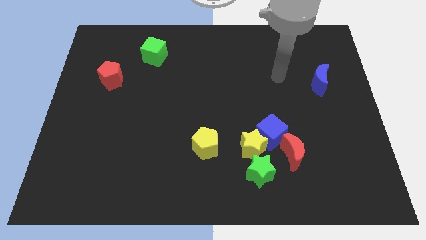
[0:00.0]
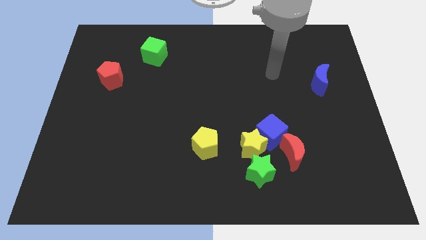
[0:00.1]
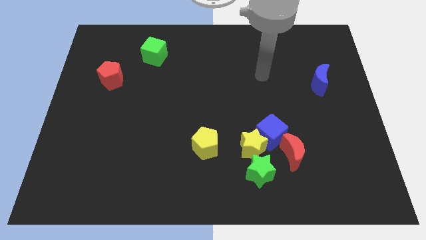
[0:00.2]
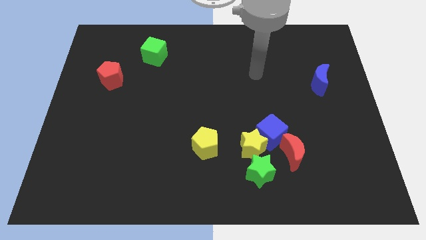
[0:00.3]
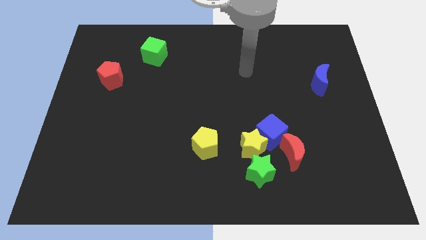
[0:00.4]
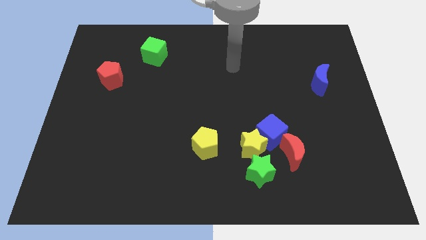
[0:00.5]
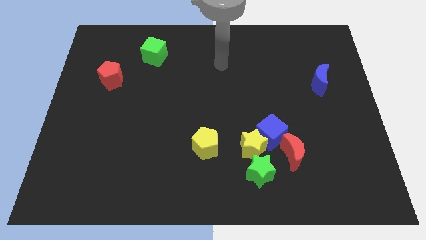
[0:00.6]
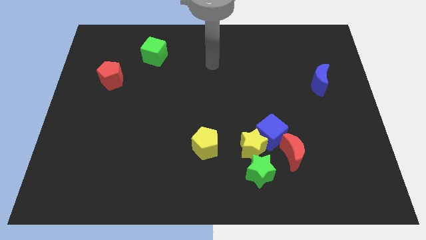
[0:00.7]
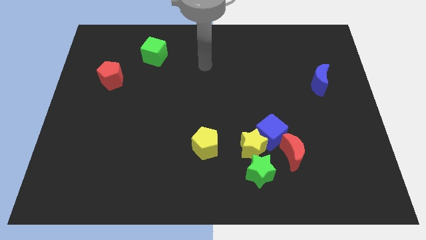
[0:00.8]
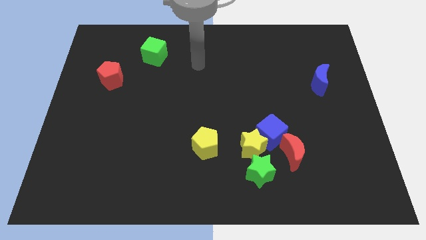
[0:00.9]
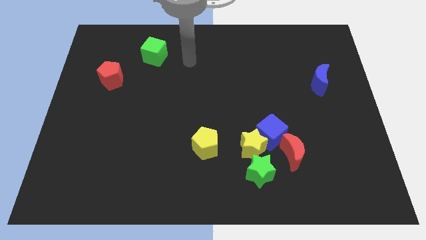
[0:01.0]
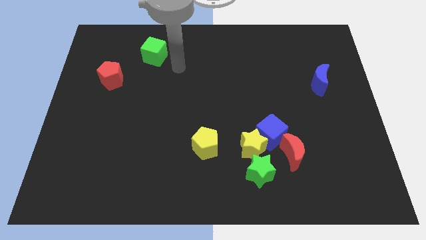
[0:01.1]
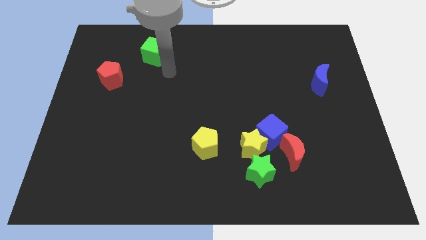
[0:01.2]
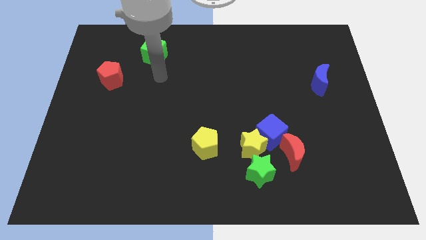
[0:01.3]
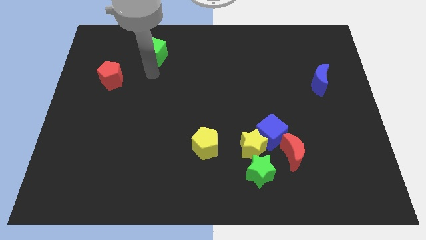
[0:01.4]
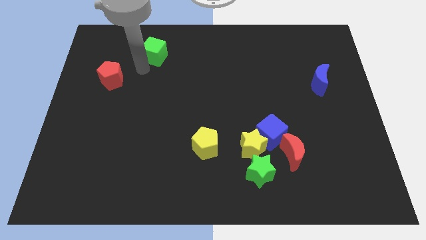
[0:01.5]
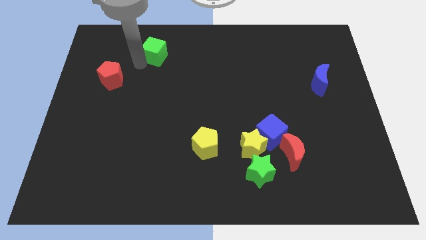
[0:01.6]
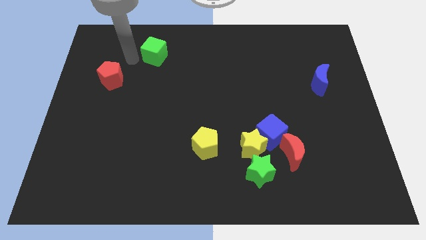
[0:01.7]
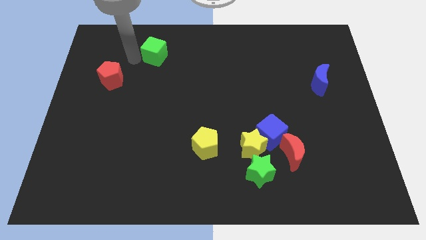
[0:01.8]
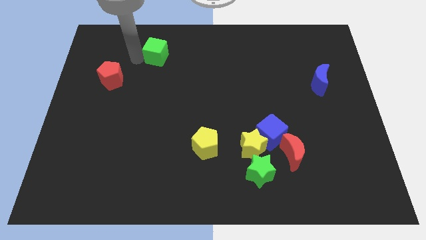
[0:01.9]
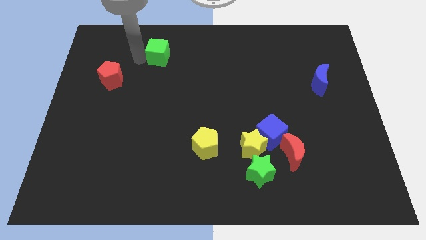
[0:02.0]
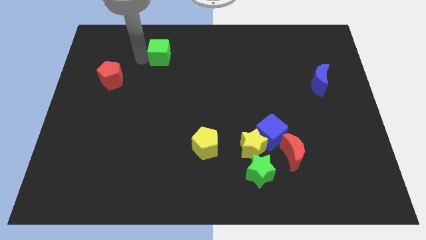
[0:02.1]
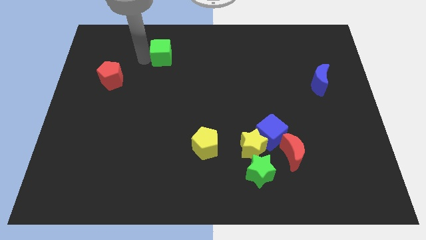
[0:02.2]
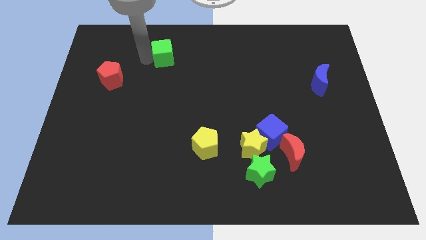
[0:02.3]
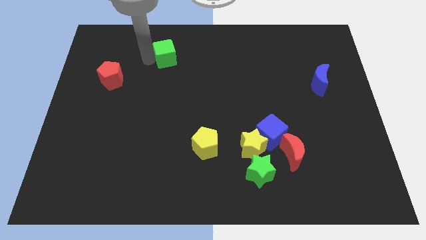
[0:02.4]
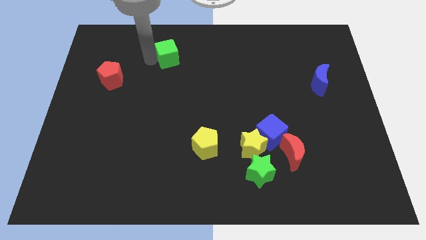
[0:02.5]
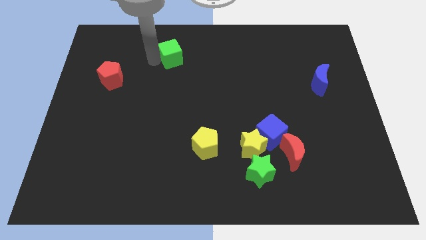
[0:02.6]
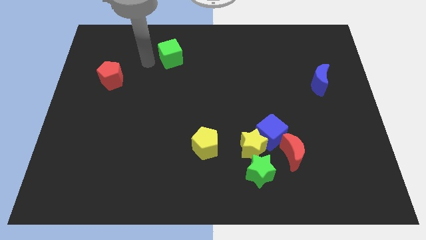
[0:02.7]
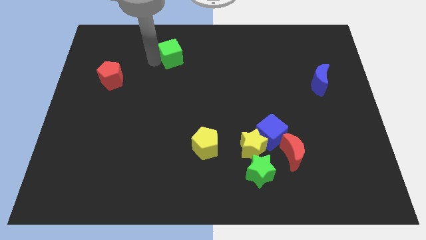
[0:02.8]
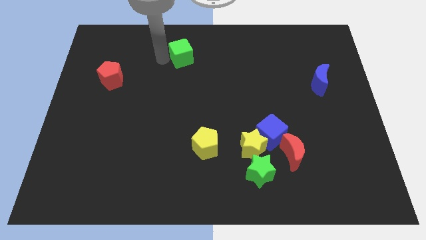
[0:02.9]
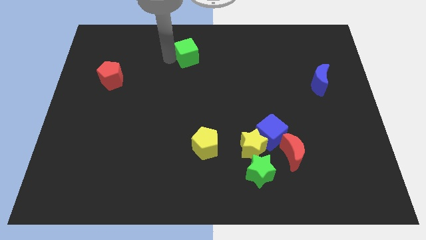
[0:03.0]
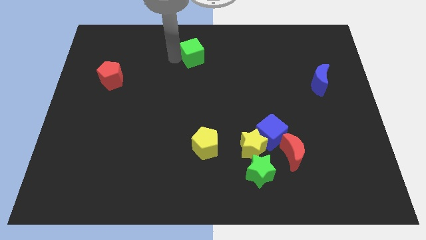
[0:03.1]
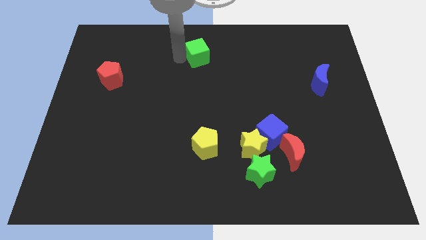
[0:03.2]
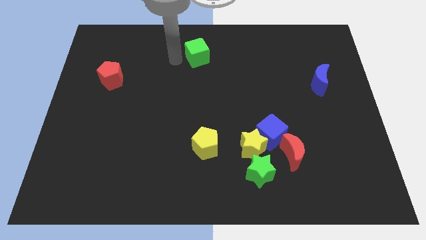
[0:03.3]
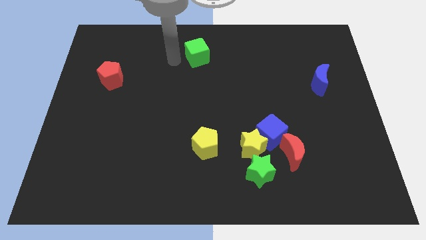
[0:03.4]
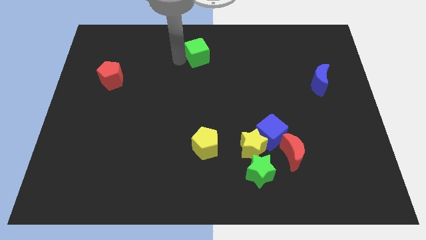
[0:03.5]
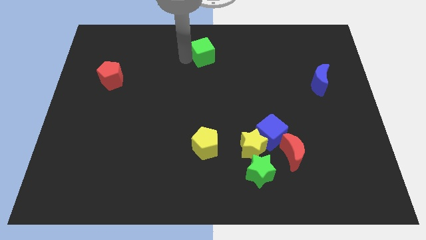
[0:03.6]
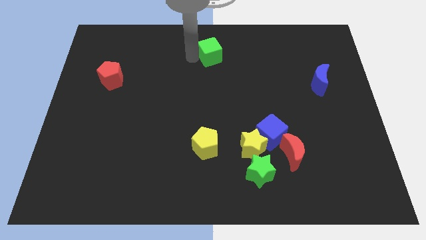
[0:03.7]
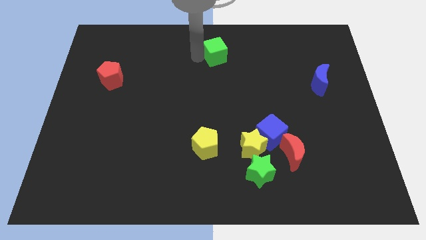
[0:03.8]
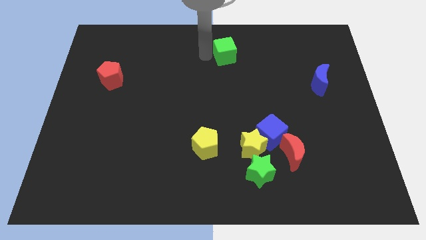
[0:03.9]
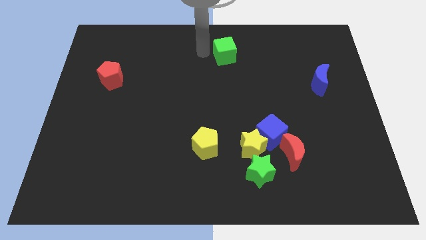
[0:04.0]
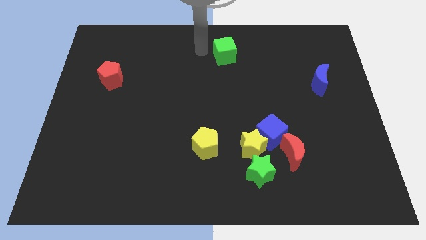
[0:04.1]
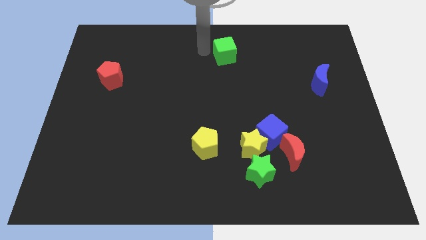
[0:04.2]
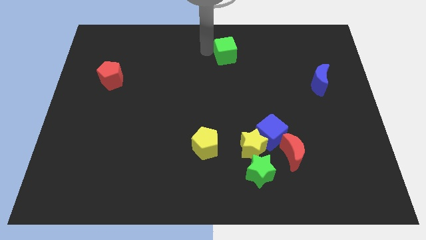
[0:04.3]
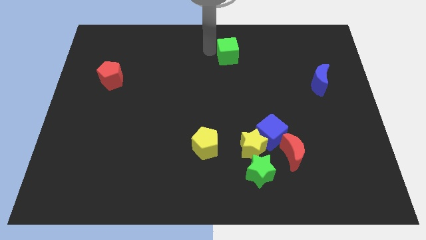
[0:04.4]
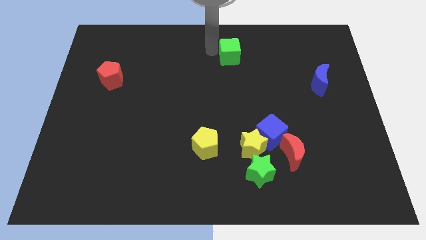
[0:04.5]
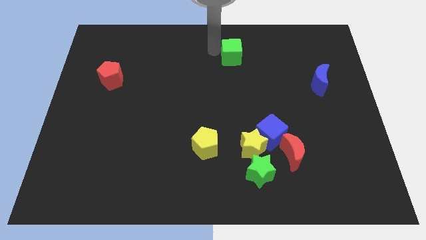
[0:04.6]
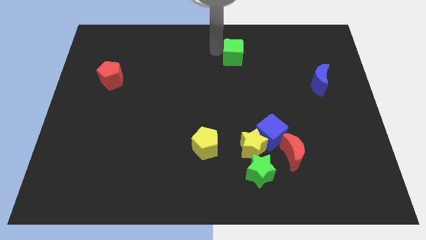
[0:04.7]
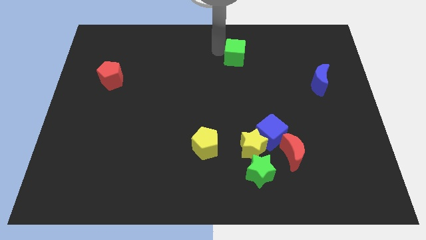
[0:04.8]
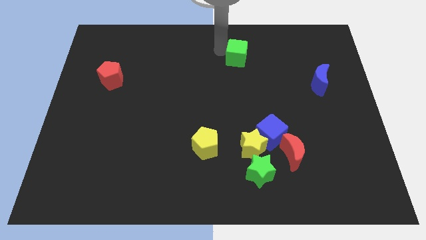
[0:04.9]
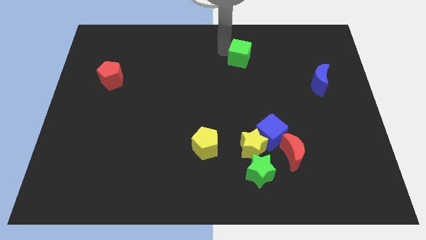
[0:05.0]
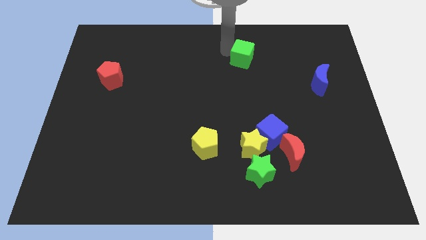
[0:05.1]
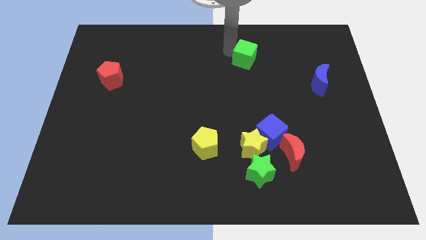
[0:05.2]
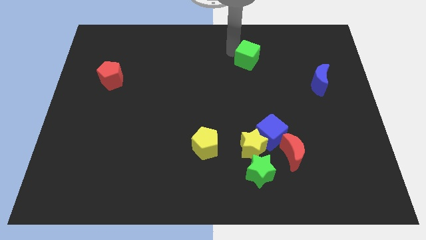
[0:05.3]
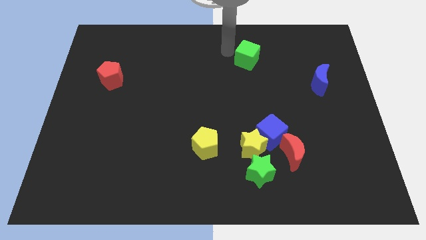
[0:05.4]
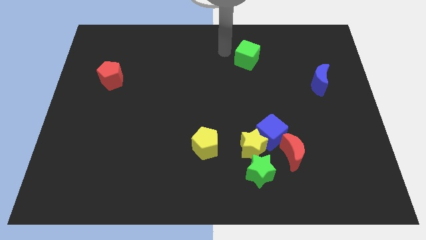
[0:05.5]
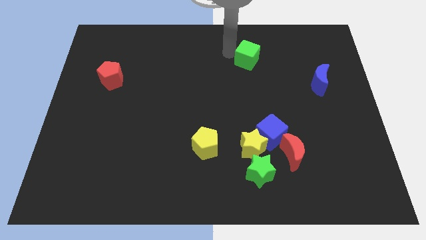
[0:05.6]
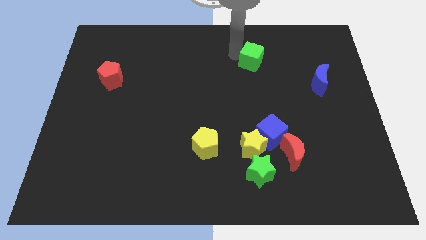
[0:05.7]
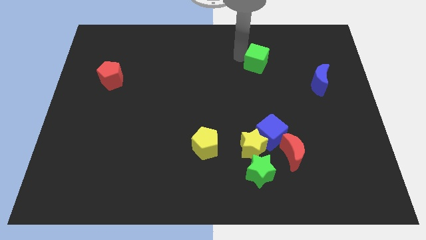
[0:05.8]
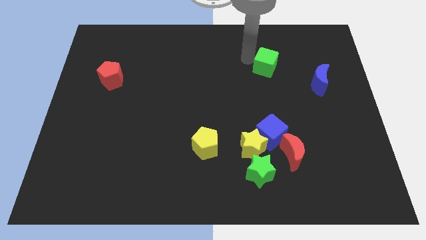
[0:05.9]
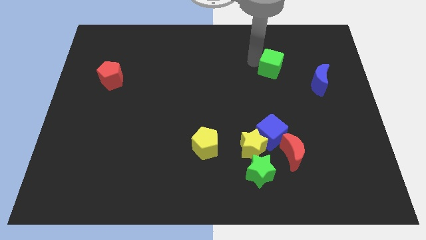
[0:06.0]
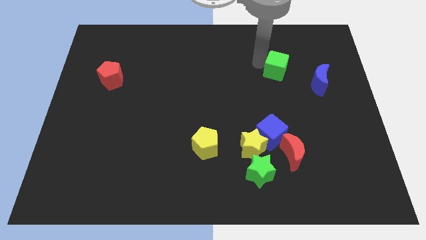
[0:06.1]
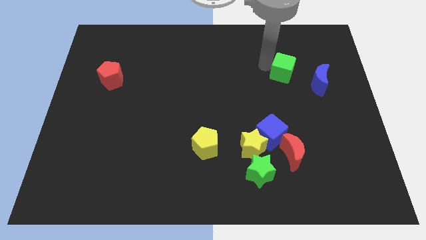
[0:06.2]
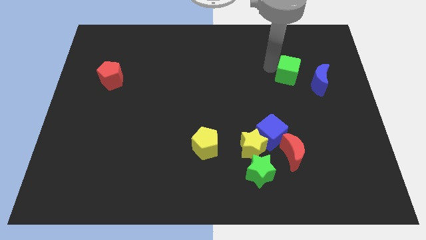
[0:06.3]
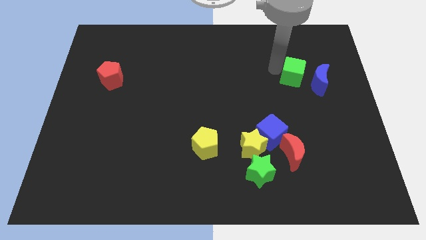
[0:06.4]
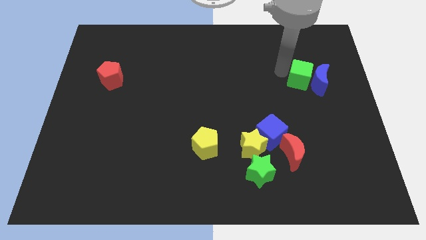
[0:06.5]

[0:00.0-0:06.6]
put the green cube towards the blue moon

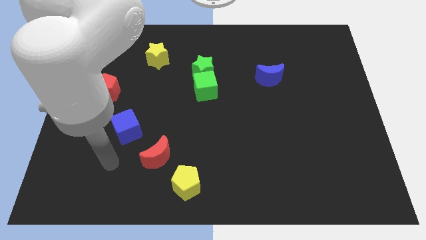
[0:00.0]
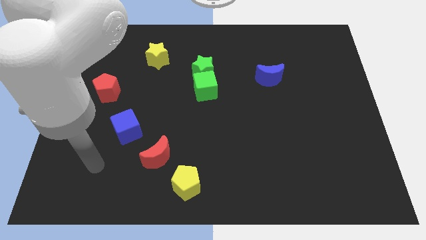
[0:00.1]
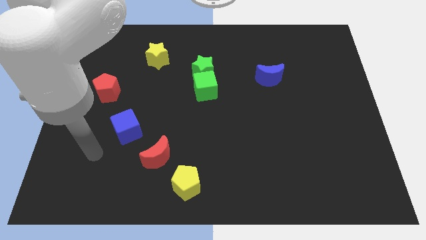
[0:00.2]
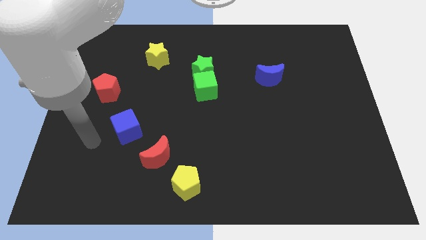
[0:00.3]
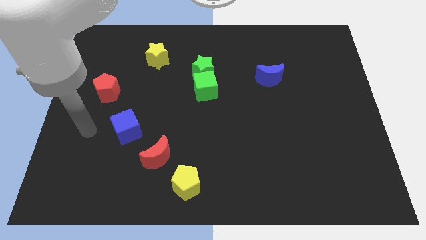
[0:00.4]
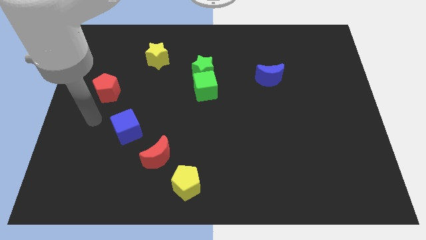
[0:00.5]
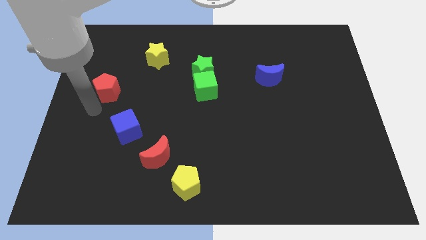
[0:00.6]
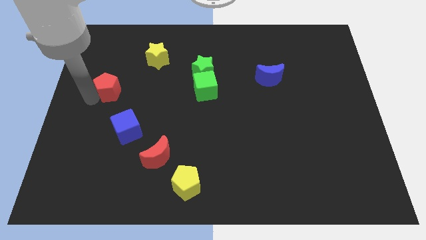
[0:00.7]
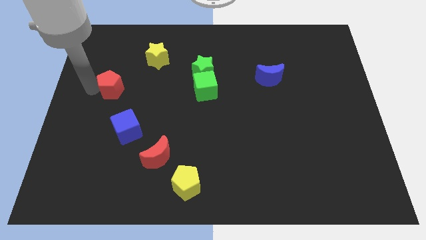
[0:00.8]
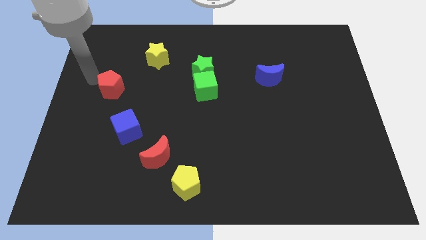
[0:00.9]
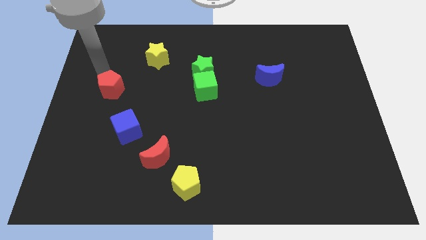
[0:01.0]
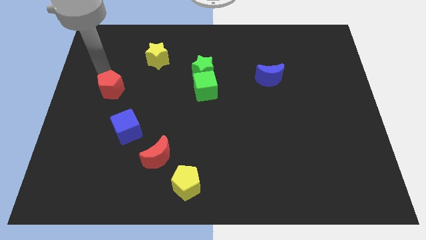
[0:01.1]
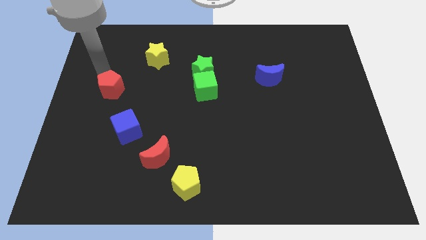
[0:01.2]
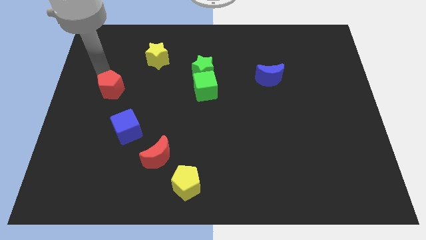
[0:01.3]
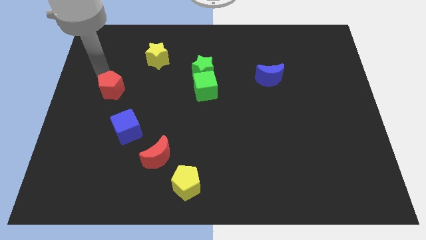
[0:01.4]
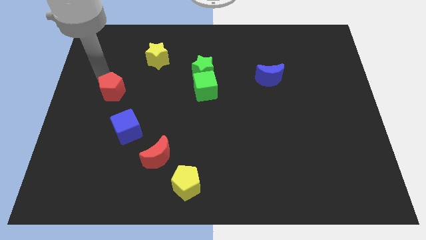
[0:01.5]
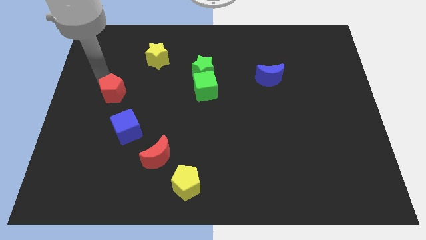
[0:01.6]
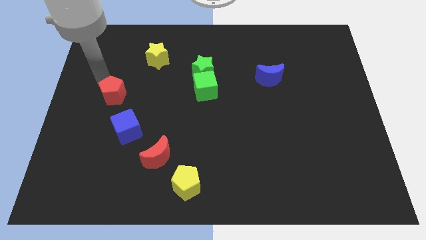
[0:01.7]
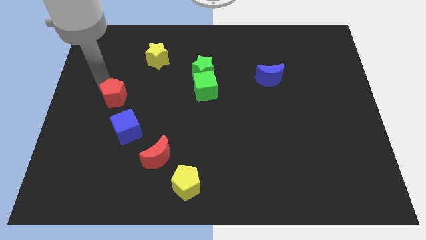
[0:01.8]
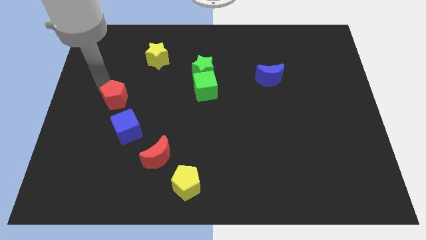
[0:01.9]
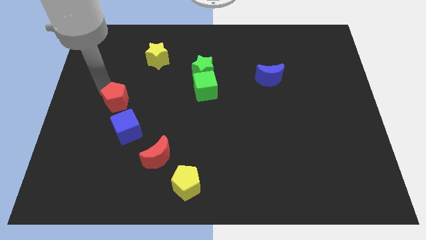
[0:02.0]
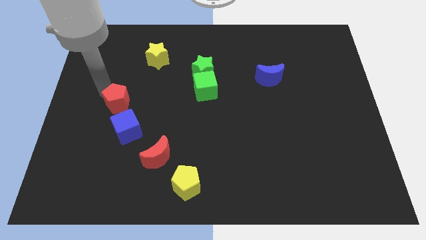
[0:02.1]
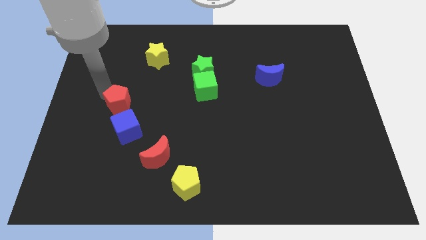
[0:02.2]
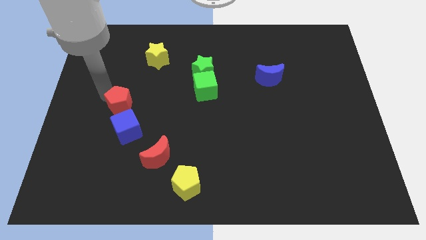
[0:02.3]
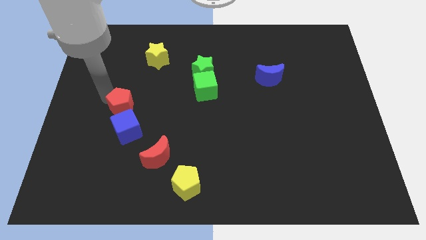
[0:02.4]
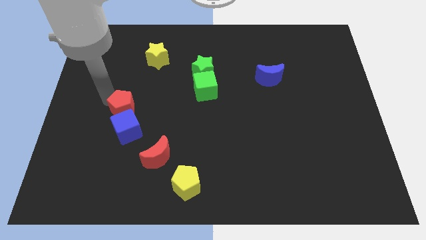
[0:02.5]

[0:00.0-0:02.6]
slide the red pentagon towards the blue cube
